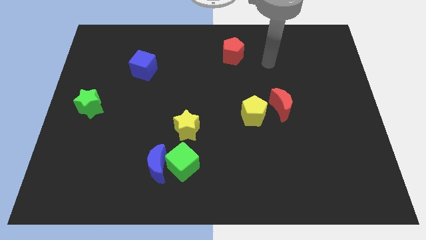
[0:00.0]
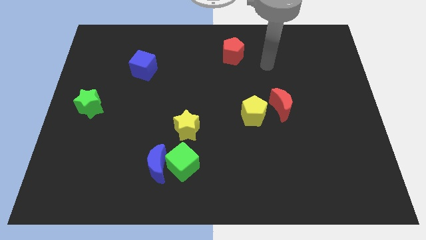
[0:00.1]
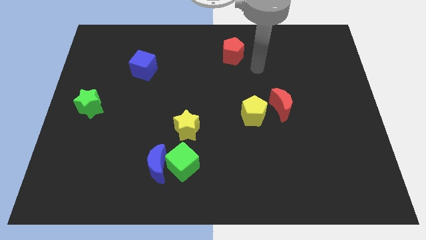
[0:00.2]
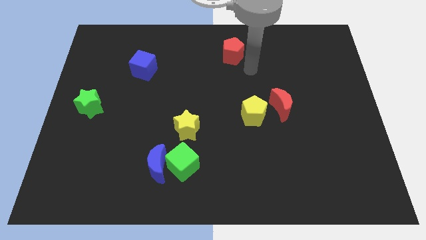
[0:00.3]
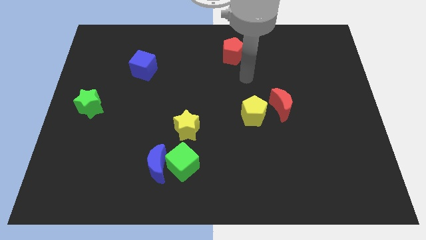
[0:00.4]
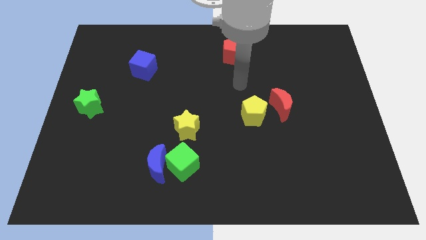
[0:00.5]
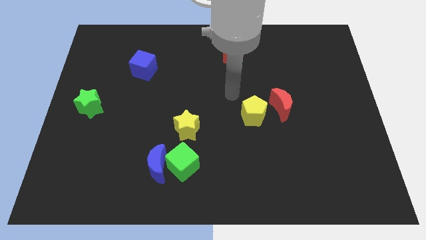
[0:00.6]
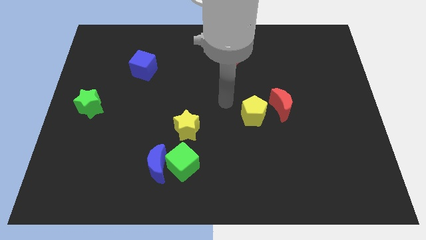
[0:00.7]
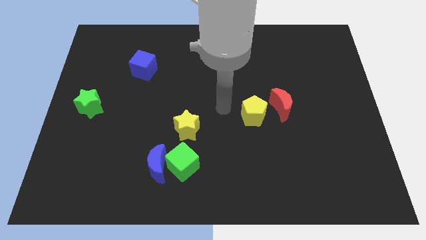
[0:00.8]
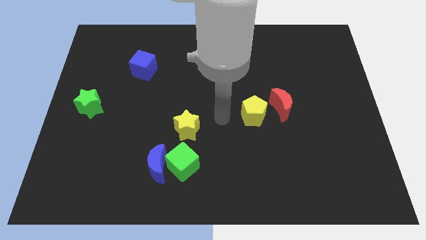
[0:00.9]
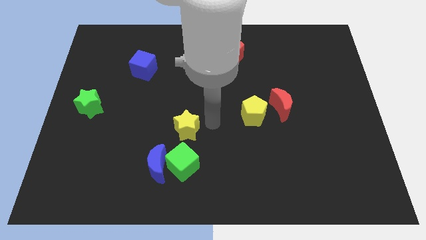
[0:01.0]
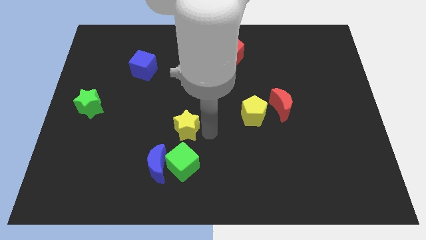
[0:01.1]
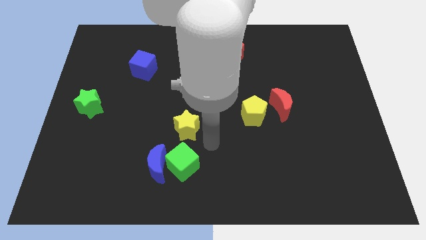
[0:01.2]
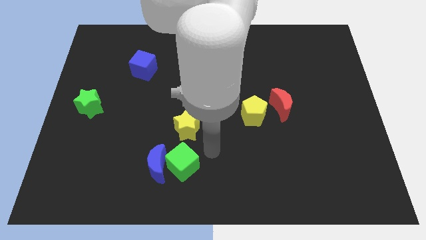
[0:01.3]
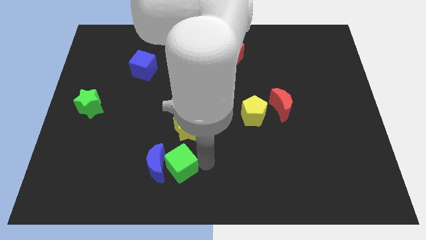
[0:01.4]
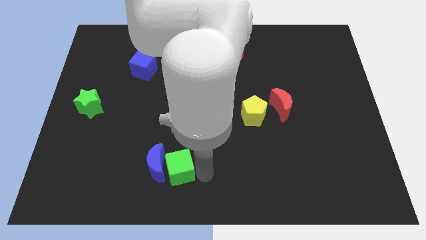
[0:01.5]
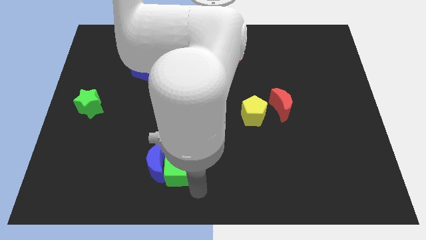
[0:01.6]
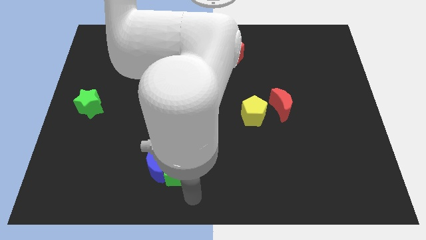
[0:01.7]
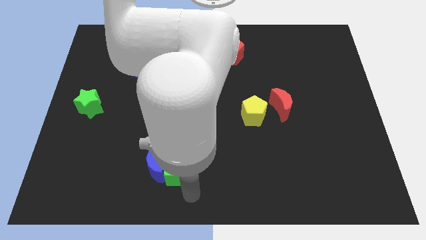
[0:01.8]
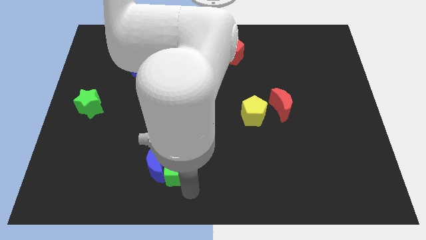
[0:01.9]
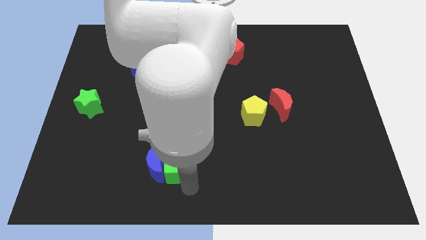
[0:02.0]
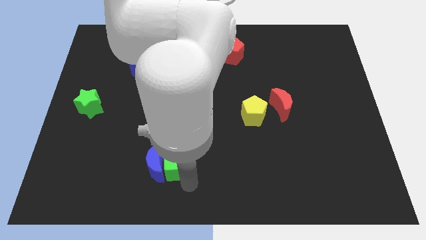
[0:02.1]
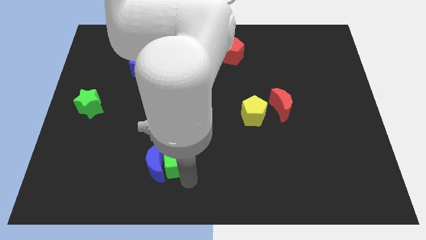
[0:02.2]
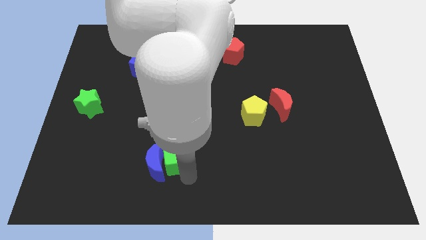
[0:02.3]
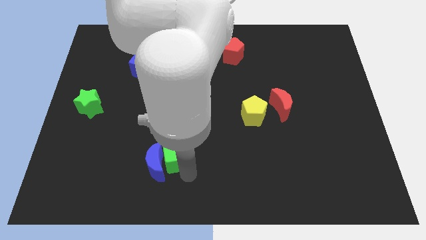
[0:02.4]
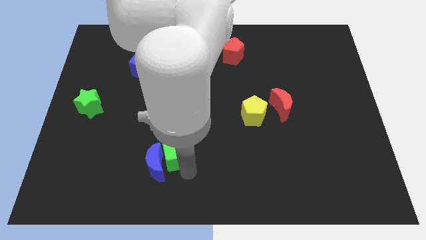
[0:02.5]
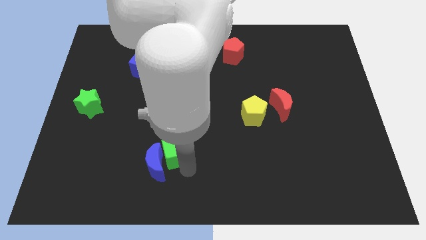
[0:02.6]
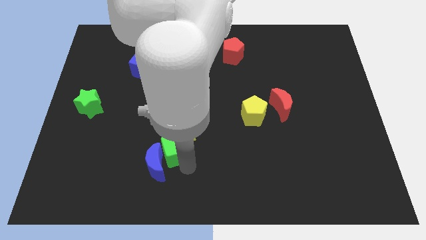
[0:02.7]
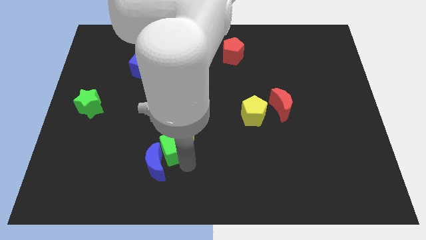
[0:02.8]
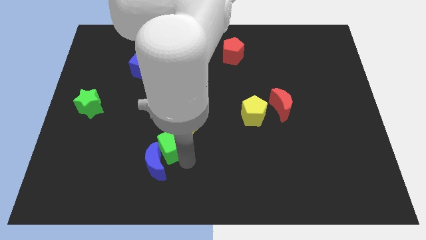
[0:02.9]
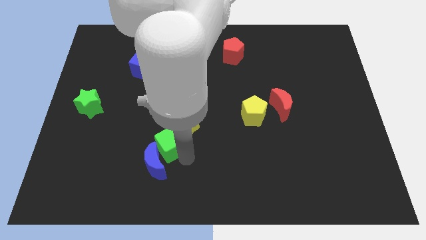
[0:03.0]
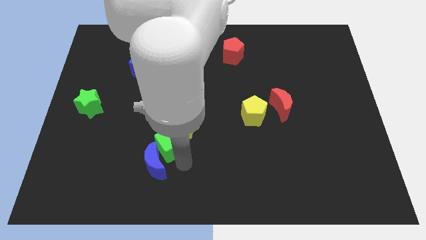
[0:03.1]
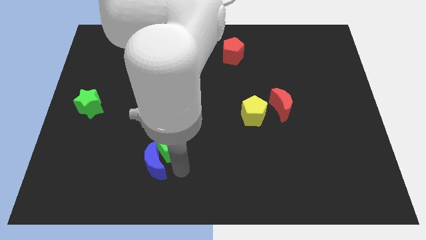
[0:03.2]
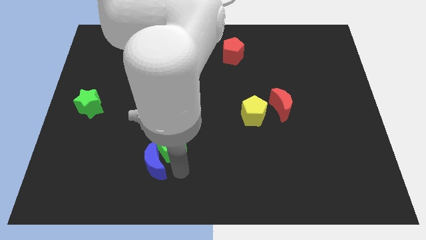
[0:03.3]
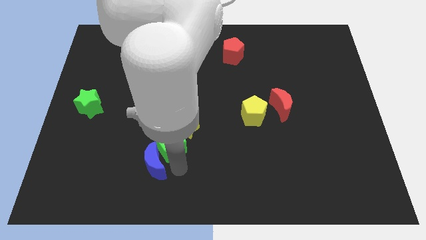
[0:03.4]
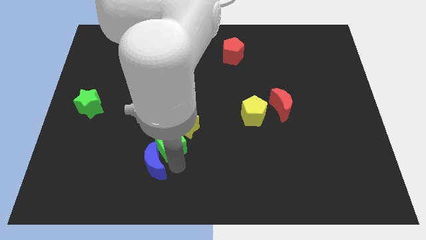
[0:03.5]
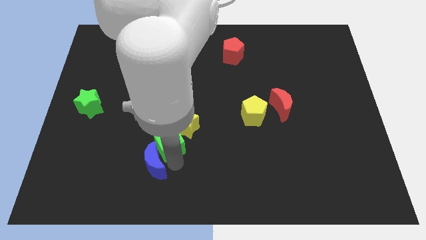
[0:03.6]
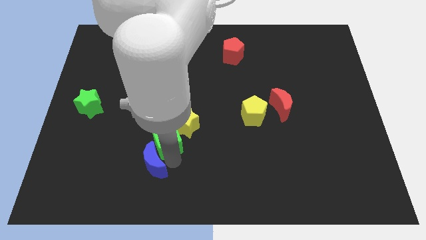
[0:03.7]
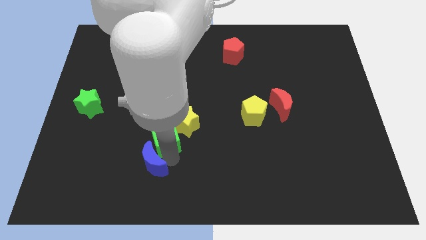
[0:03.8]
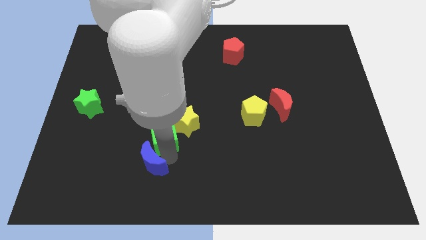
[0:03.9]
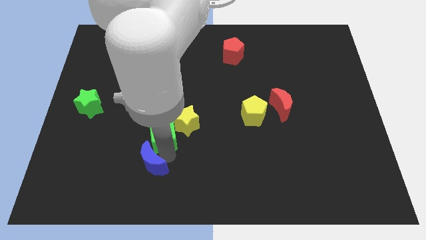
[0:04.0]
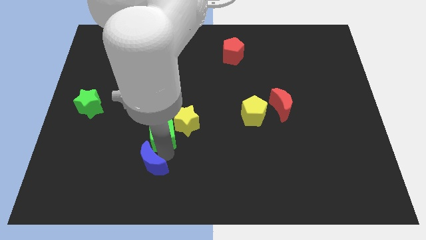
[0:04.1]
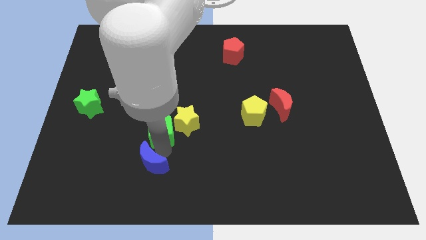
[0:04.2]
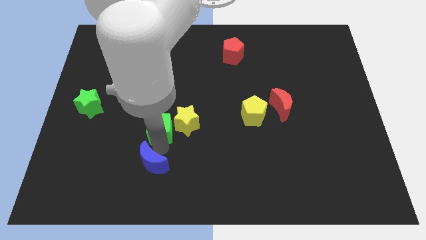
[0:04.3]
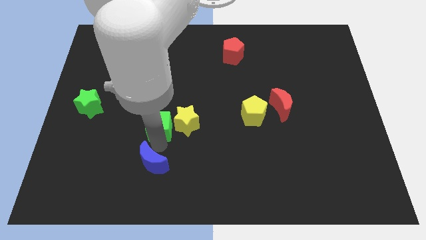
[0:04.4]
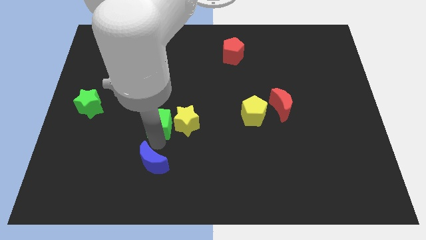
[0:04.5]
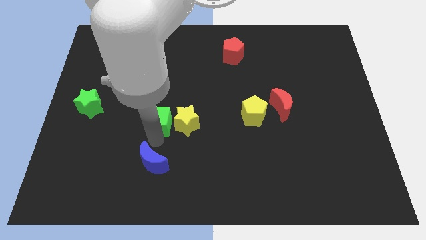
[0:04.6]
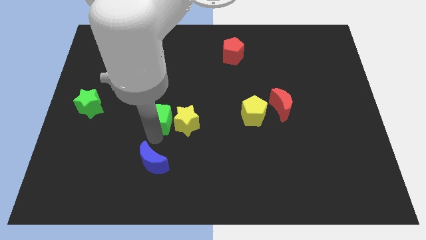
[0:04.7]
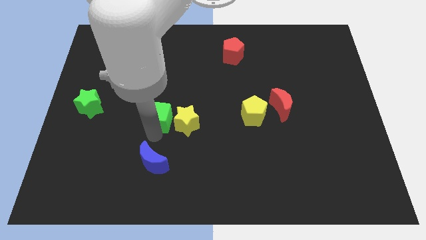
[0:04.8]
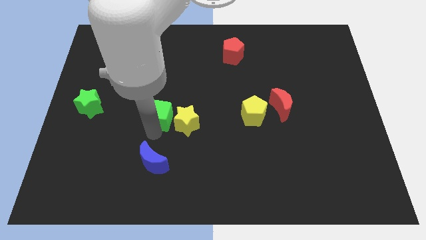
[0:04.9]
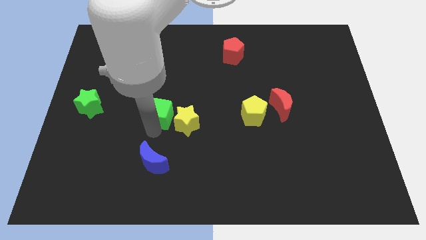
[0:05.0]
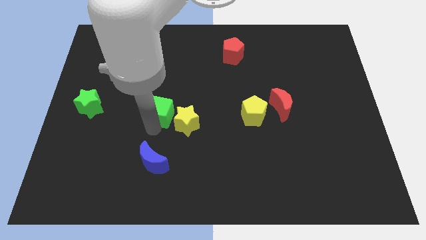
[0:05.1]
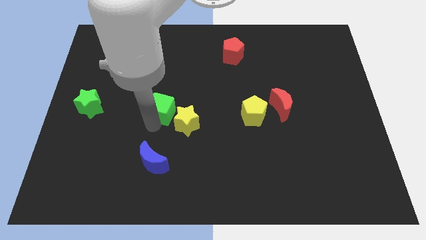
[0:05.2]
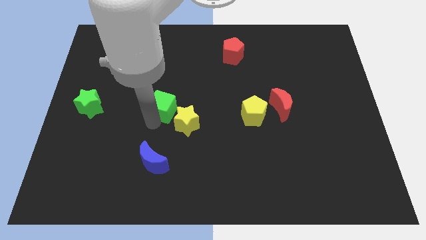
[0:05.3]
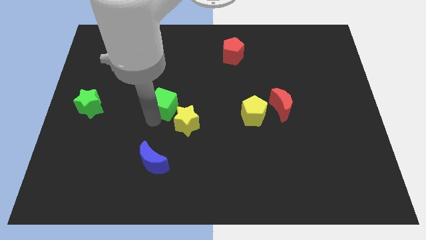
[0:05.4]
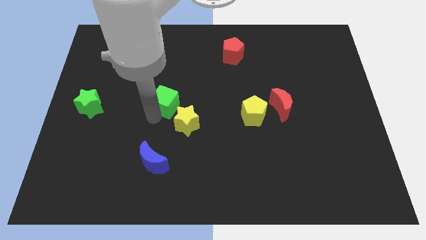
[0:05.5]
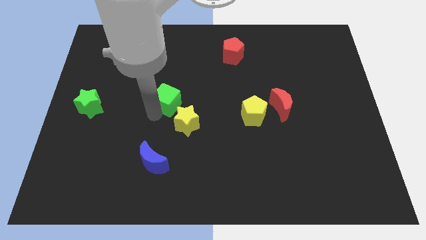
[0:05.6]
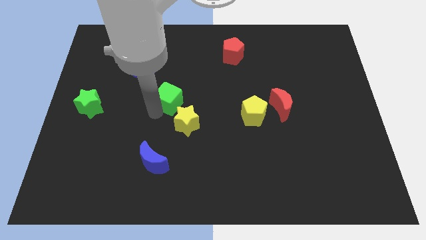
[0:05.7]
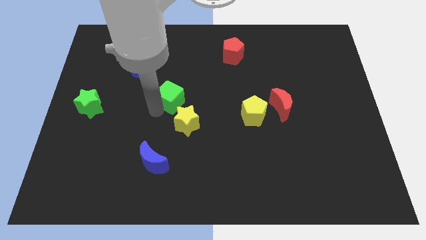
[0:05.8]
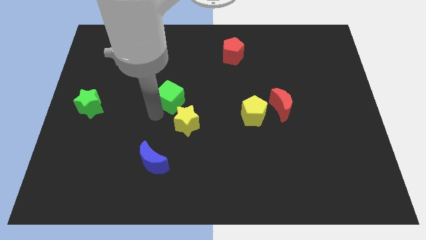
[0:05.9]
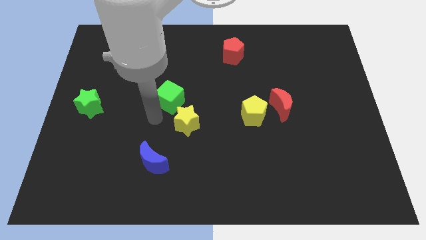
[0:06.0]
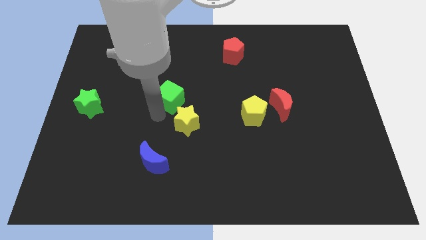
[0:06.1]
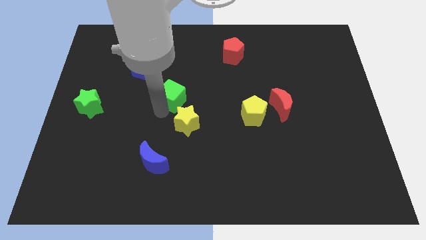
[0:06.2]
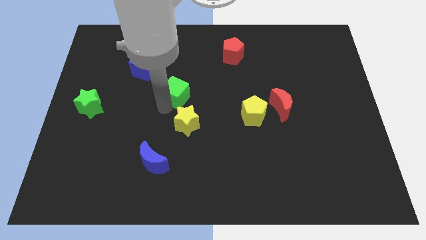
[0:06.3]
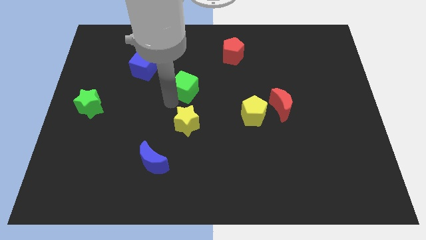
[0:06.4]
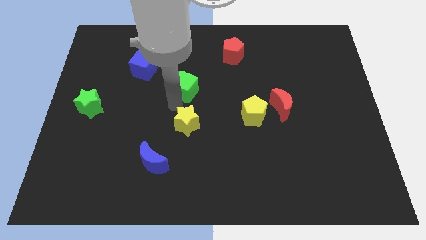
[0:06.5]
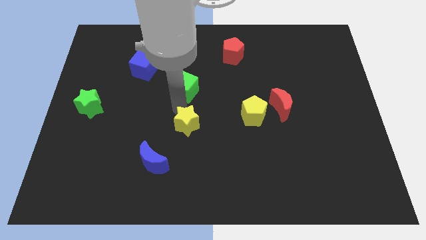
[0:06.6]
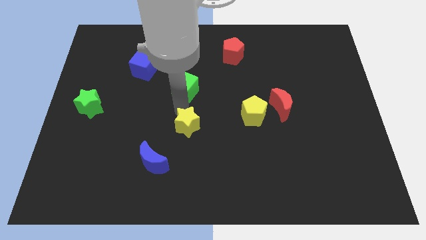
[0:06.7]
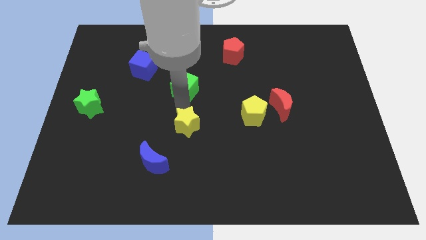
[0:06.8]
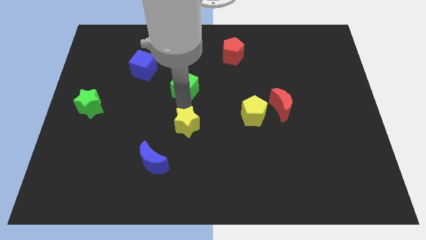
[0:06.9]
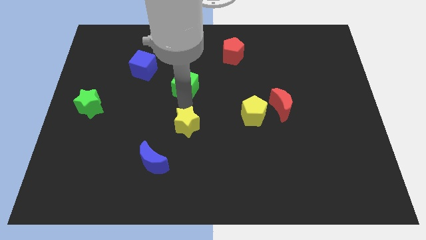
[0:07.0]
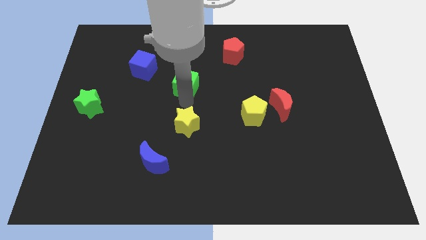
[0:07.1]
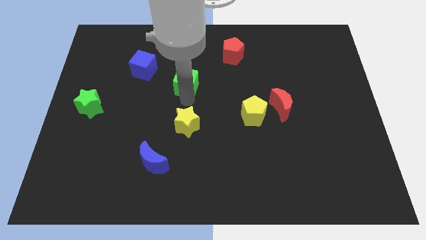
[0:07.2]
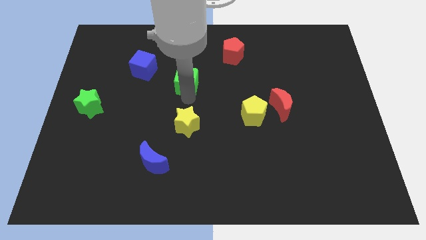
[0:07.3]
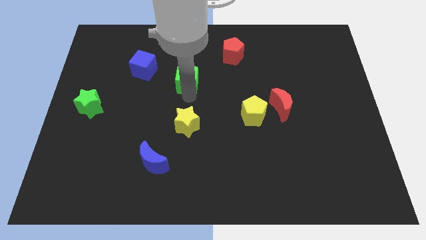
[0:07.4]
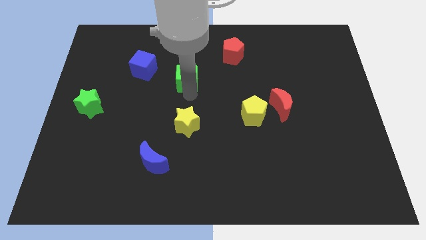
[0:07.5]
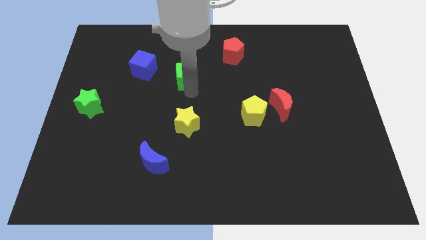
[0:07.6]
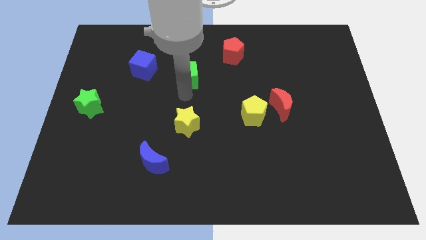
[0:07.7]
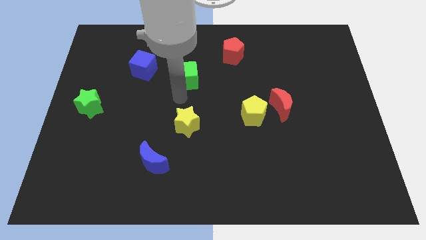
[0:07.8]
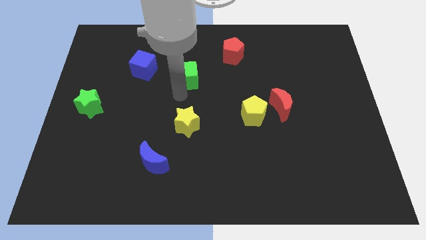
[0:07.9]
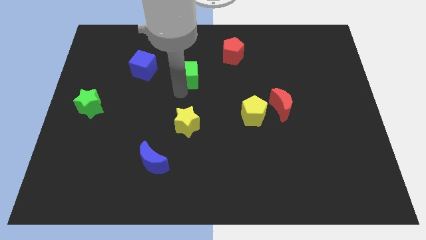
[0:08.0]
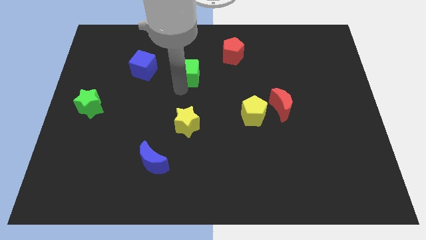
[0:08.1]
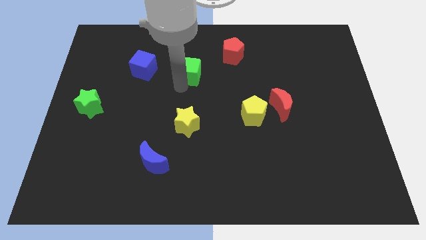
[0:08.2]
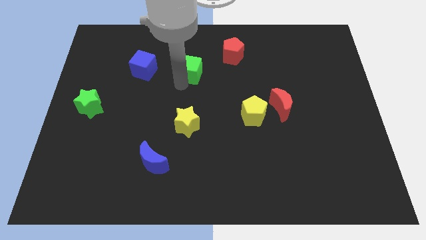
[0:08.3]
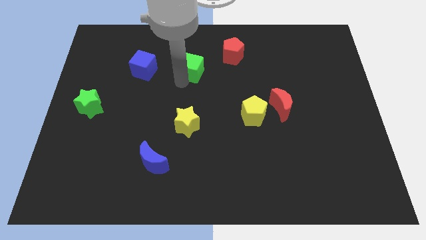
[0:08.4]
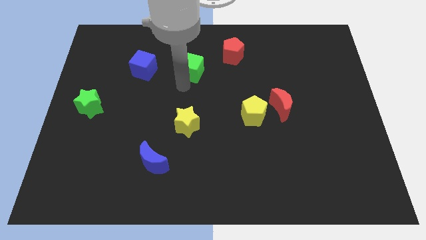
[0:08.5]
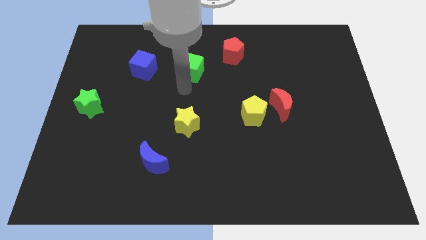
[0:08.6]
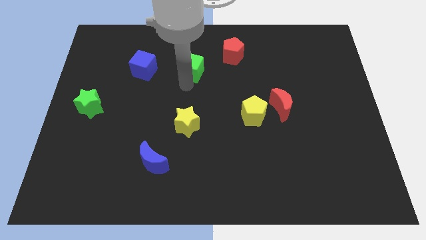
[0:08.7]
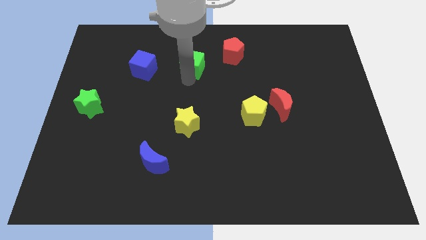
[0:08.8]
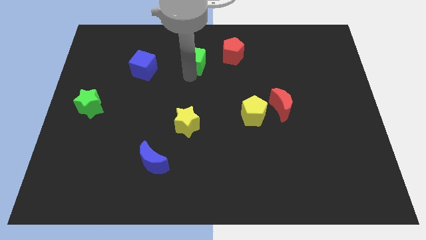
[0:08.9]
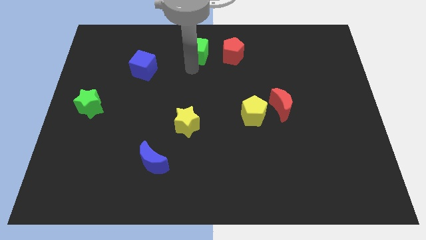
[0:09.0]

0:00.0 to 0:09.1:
slide the green cube to the towards your base
